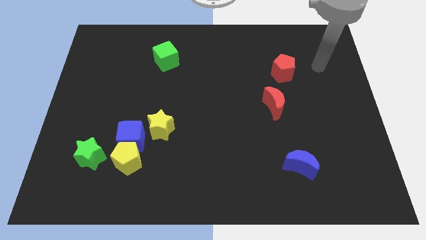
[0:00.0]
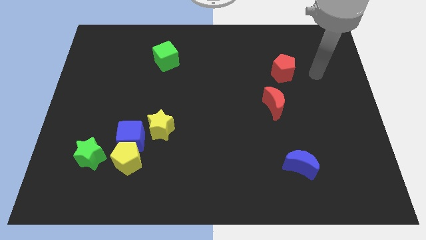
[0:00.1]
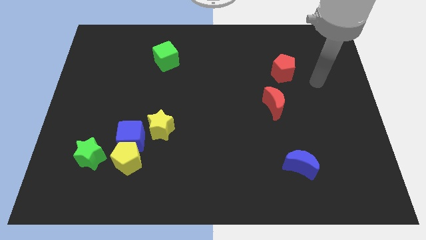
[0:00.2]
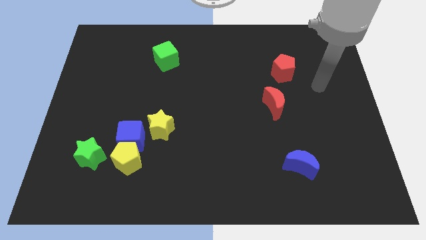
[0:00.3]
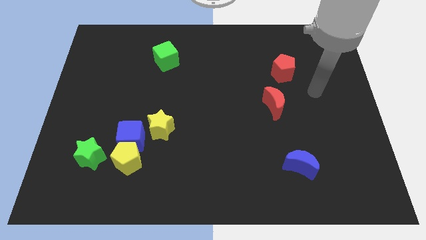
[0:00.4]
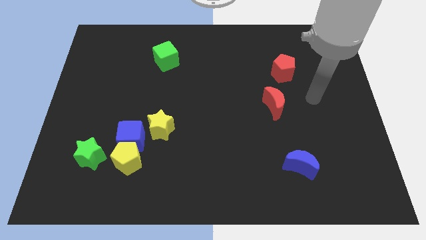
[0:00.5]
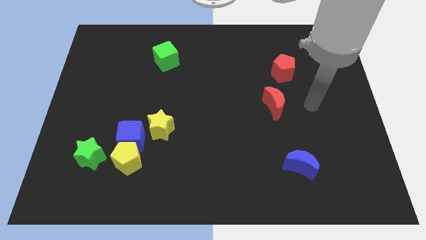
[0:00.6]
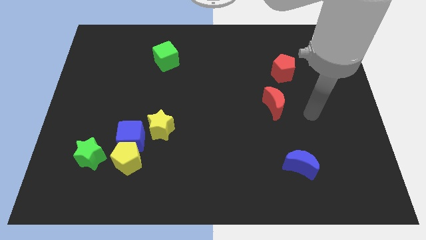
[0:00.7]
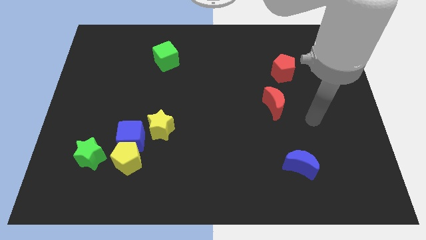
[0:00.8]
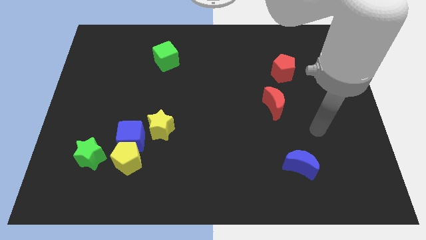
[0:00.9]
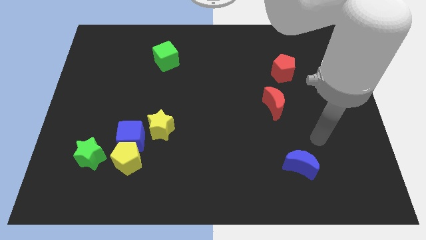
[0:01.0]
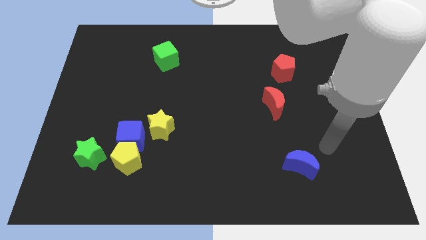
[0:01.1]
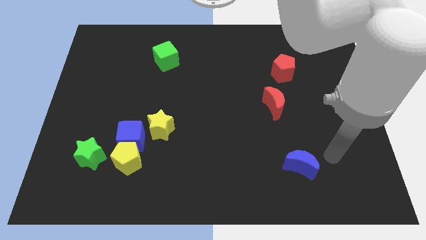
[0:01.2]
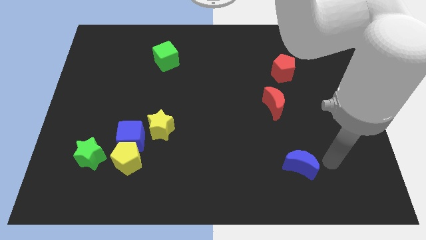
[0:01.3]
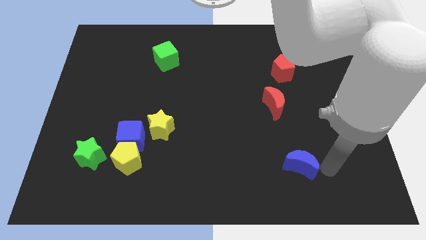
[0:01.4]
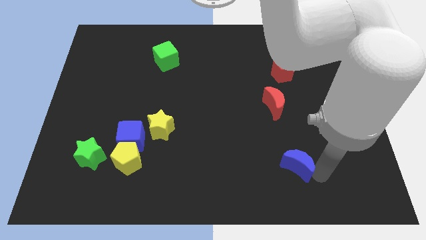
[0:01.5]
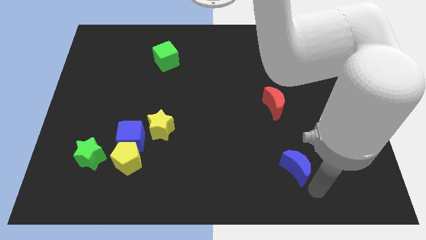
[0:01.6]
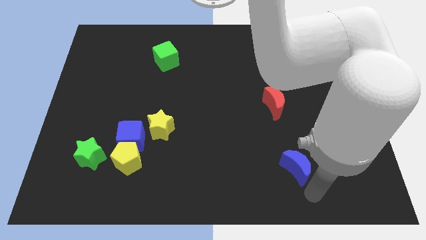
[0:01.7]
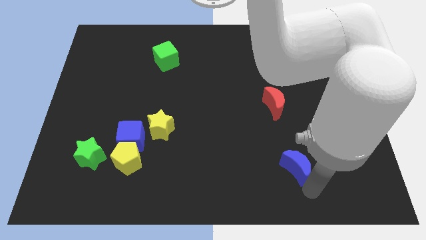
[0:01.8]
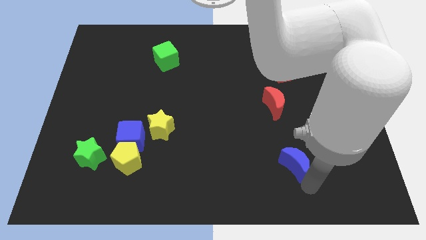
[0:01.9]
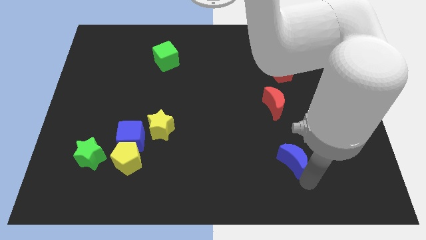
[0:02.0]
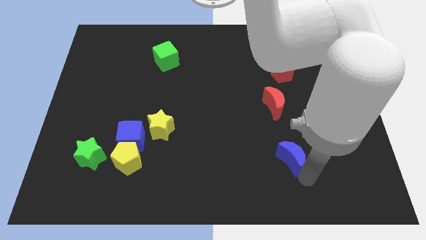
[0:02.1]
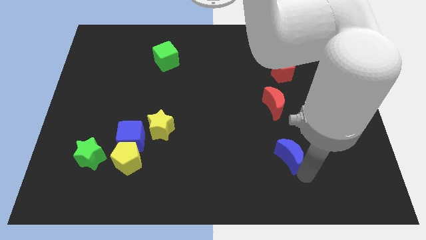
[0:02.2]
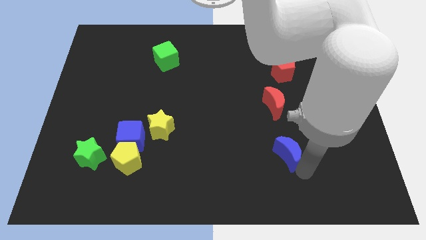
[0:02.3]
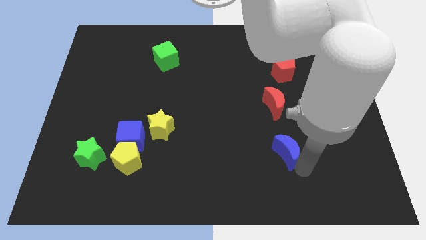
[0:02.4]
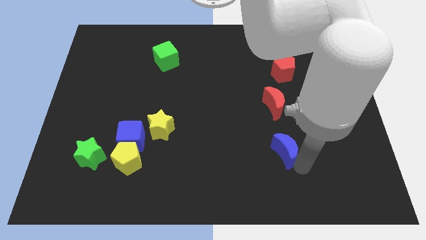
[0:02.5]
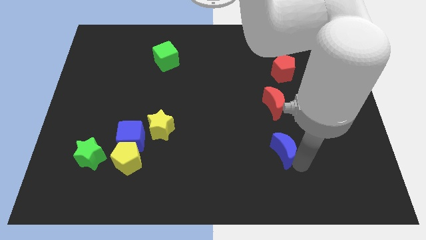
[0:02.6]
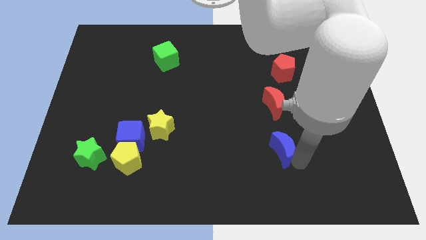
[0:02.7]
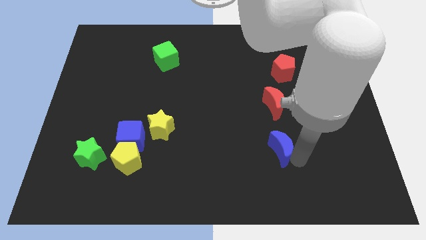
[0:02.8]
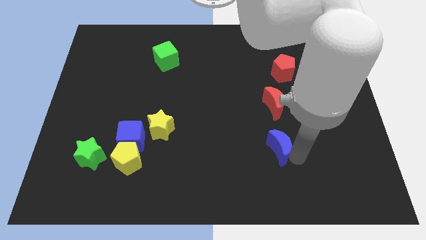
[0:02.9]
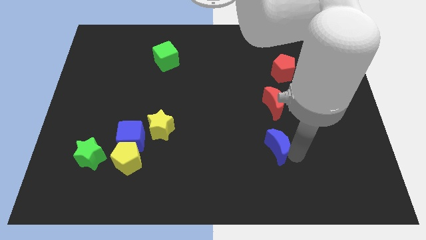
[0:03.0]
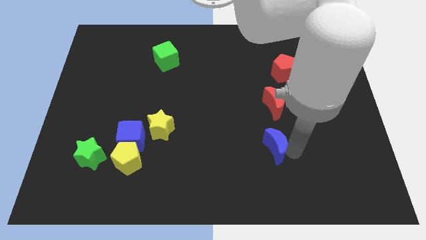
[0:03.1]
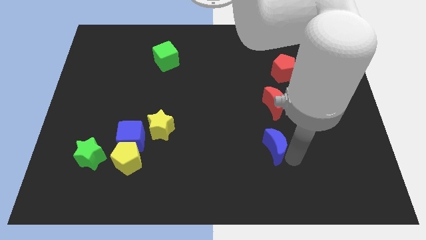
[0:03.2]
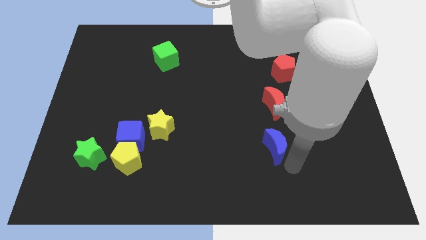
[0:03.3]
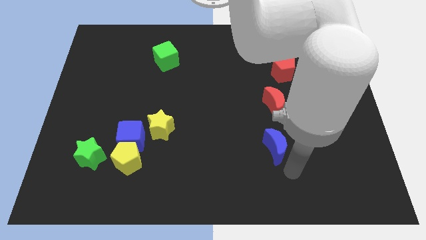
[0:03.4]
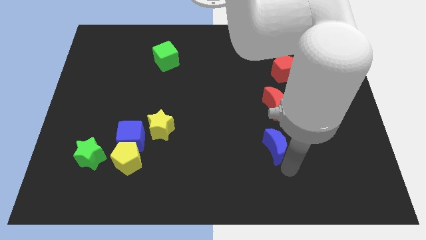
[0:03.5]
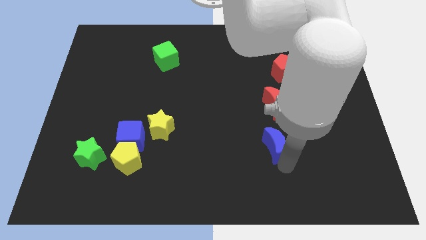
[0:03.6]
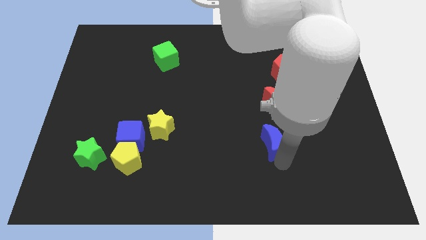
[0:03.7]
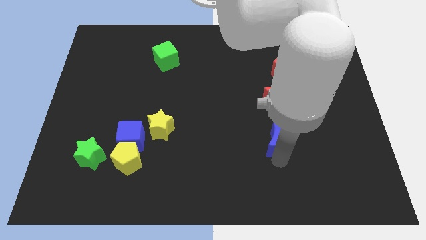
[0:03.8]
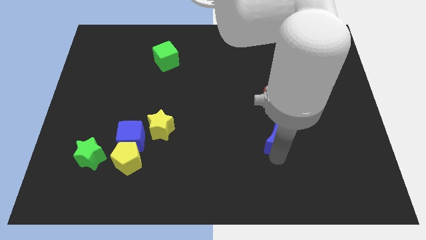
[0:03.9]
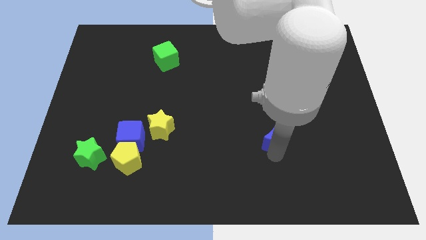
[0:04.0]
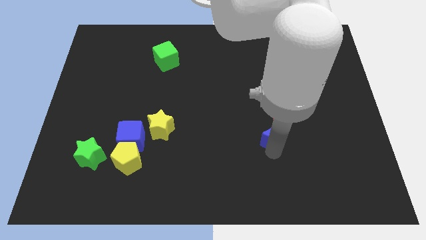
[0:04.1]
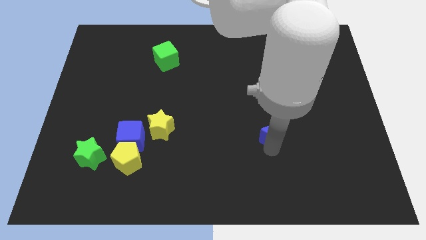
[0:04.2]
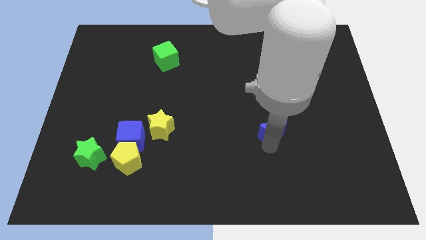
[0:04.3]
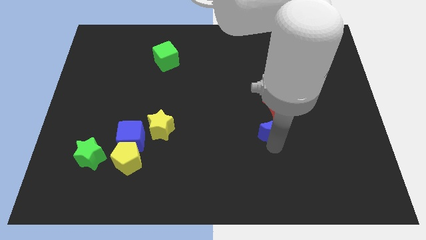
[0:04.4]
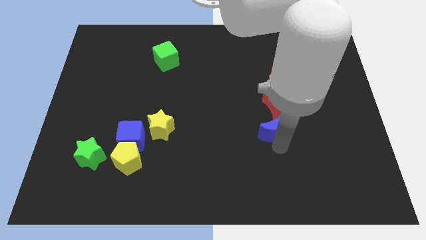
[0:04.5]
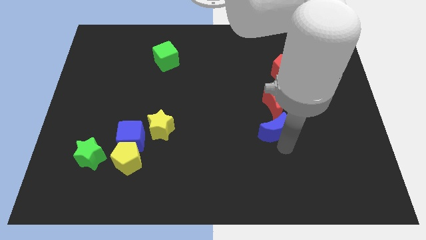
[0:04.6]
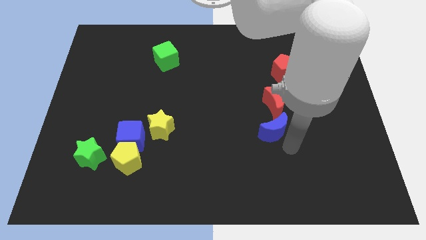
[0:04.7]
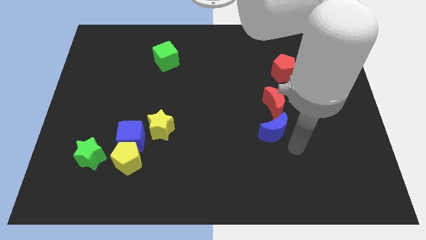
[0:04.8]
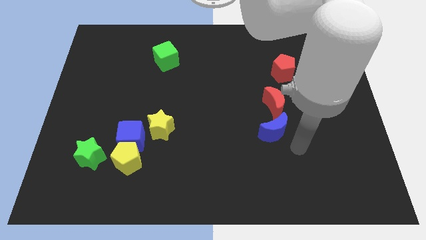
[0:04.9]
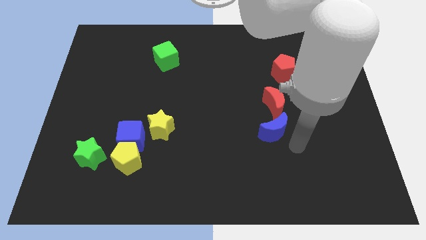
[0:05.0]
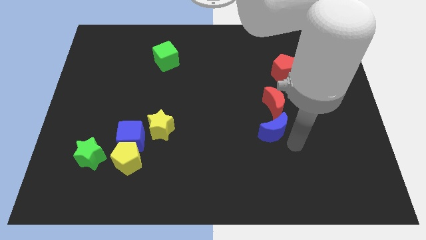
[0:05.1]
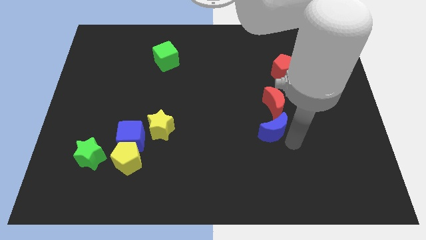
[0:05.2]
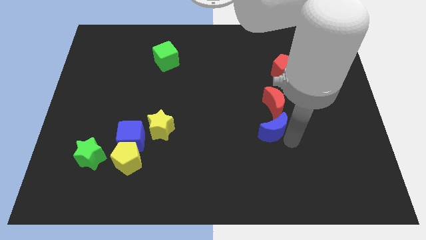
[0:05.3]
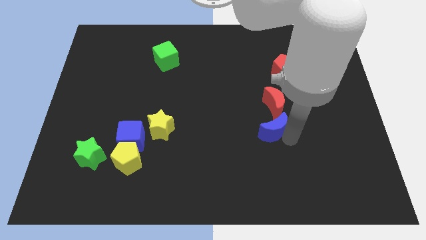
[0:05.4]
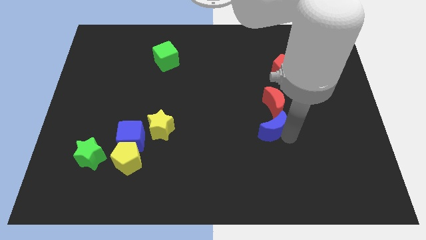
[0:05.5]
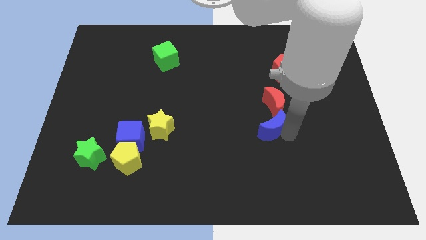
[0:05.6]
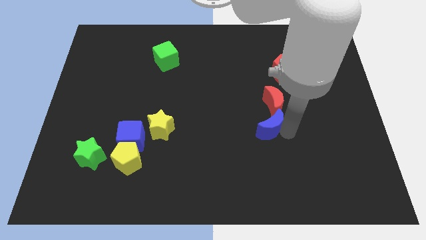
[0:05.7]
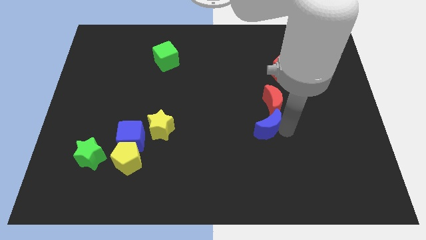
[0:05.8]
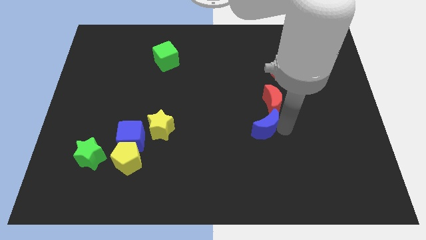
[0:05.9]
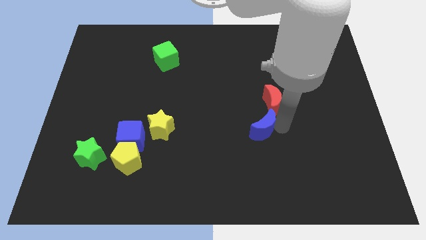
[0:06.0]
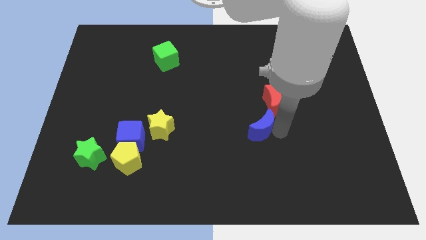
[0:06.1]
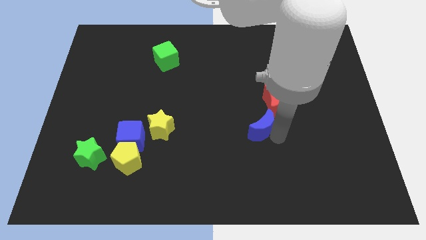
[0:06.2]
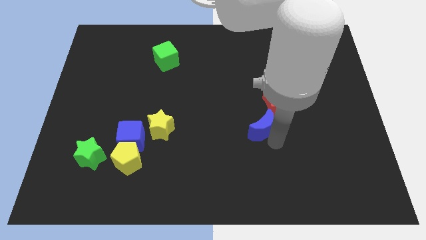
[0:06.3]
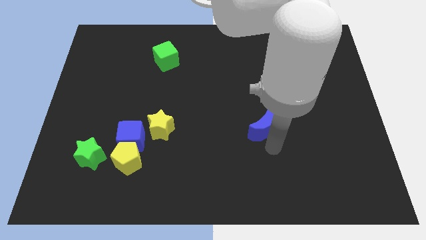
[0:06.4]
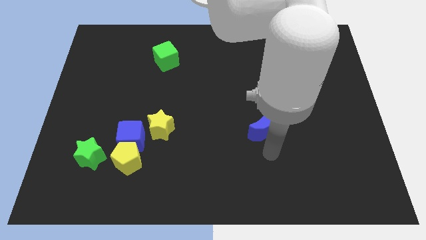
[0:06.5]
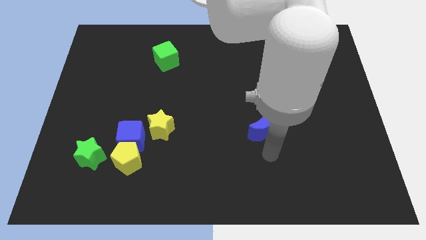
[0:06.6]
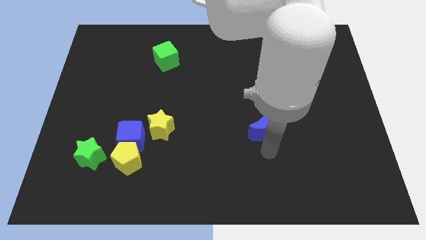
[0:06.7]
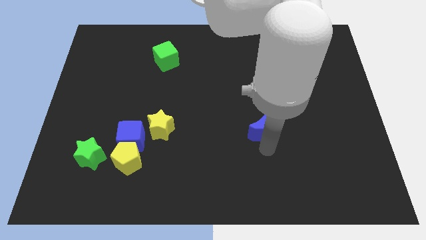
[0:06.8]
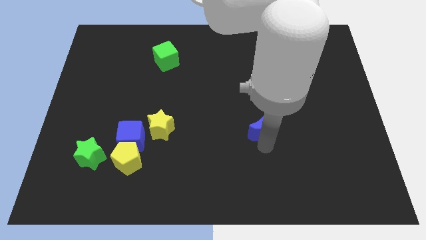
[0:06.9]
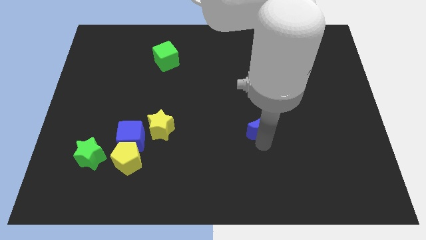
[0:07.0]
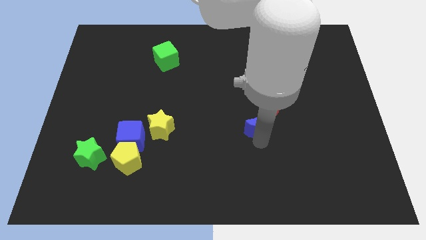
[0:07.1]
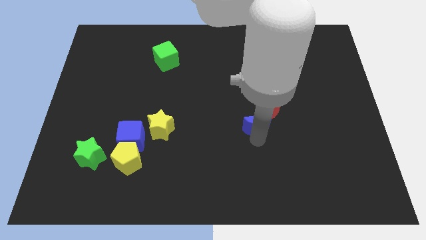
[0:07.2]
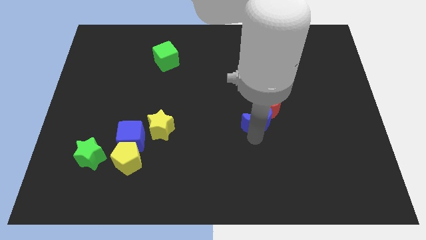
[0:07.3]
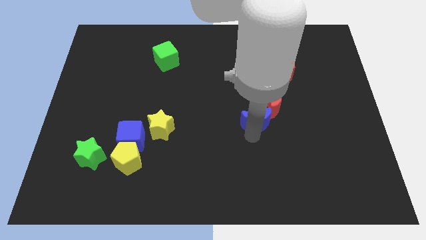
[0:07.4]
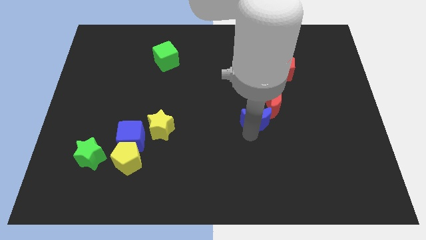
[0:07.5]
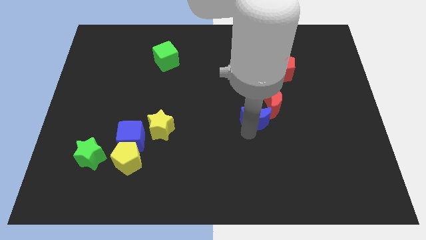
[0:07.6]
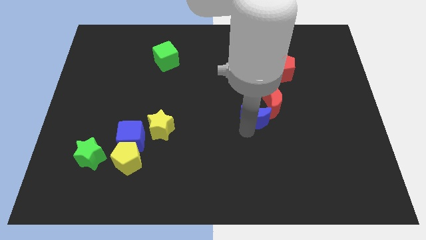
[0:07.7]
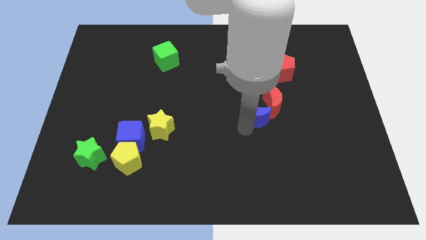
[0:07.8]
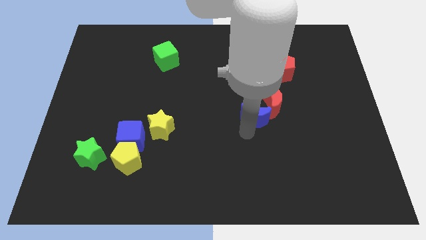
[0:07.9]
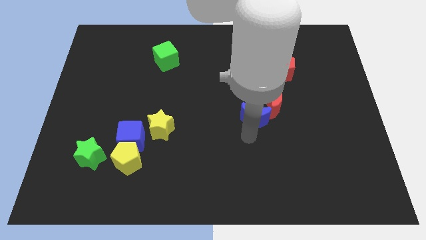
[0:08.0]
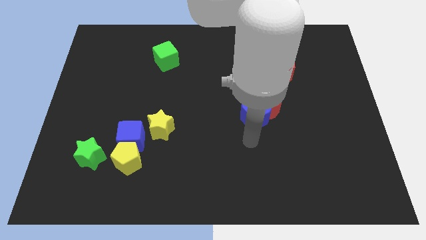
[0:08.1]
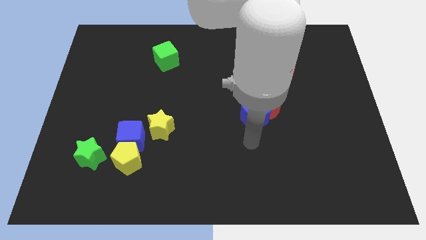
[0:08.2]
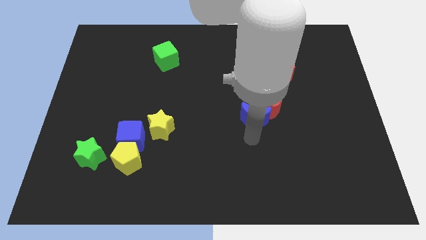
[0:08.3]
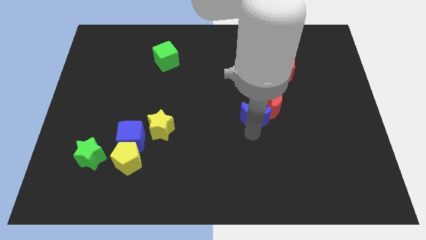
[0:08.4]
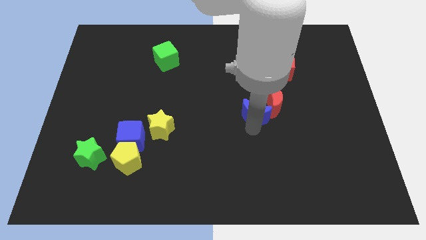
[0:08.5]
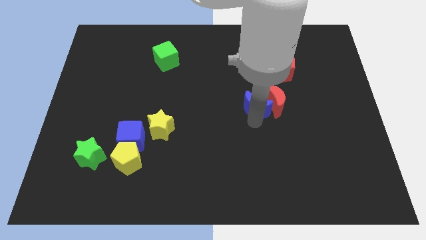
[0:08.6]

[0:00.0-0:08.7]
move the blue moon to the top left of the red moon
